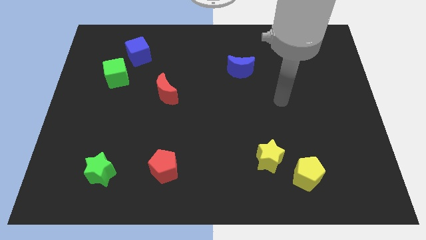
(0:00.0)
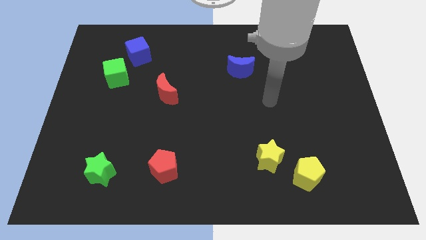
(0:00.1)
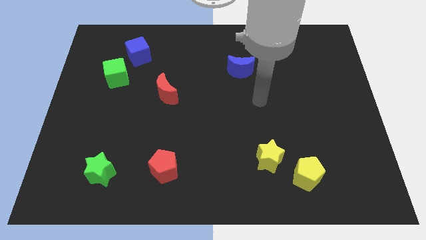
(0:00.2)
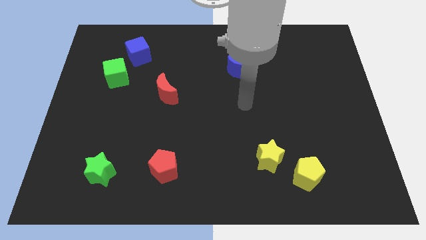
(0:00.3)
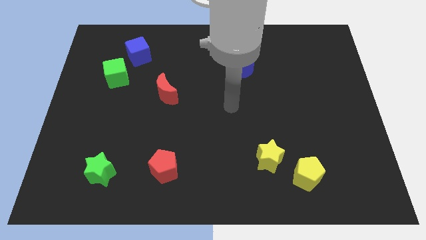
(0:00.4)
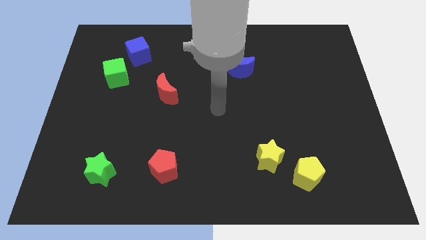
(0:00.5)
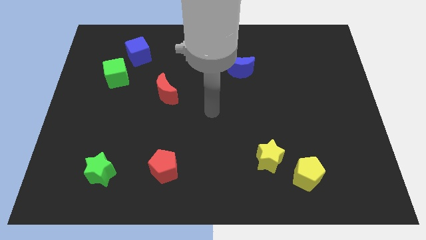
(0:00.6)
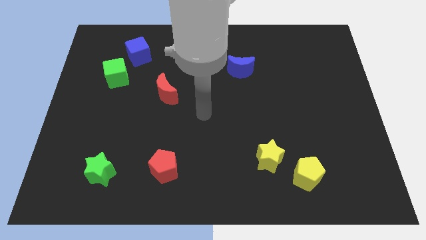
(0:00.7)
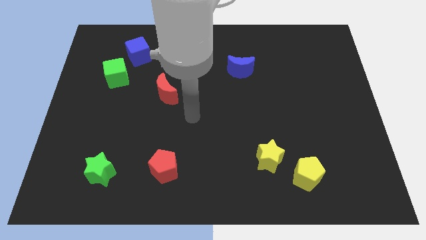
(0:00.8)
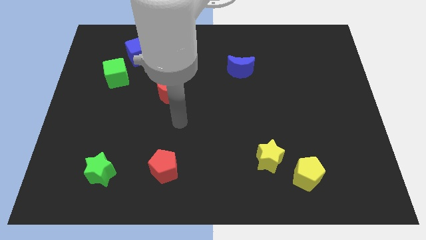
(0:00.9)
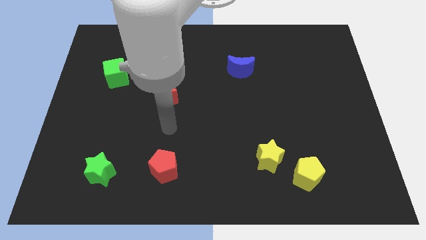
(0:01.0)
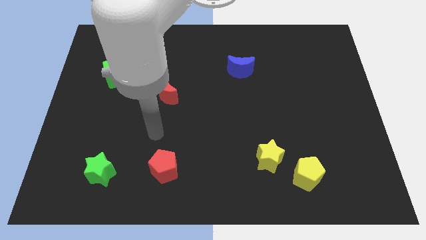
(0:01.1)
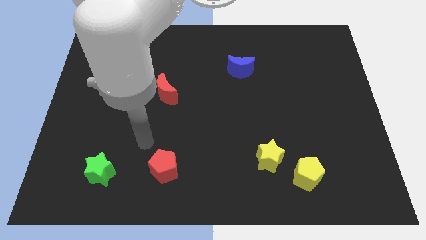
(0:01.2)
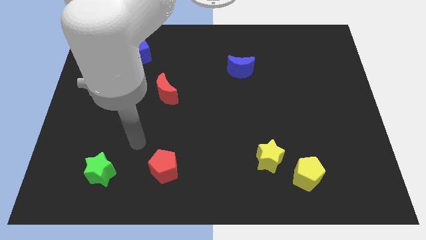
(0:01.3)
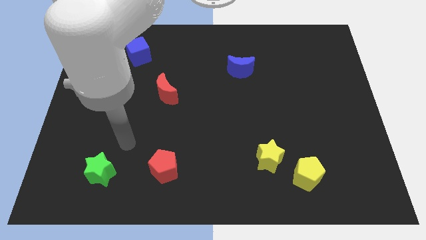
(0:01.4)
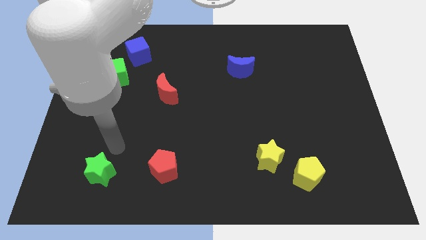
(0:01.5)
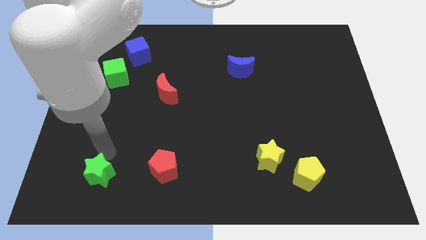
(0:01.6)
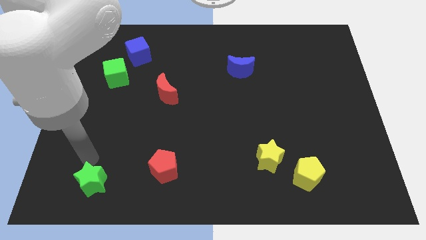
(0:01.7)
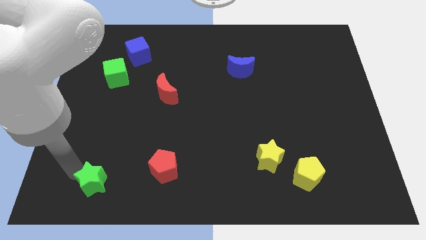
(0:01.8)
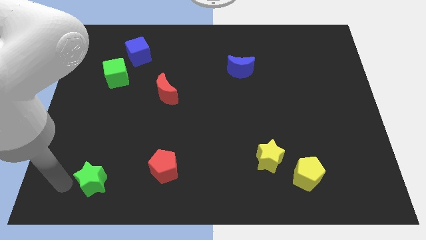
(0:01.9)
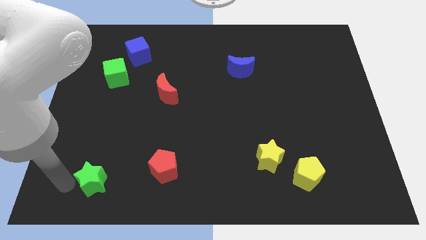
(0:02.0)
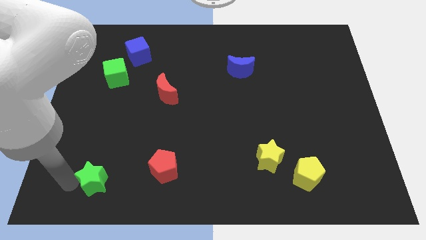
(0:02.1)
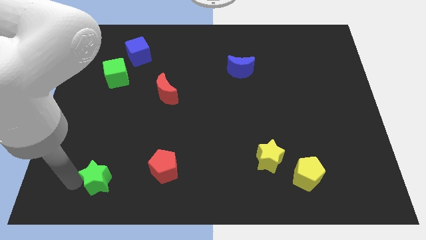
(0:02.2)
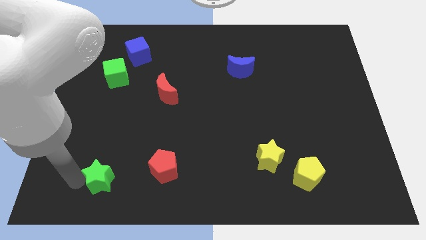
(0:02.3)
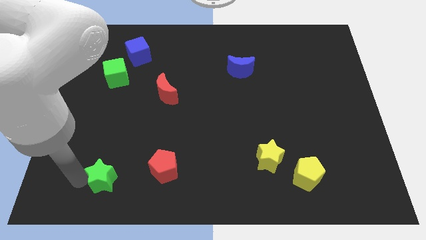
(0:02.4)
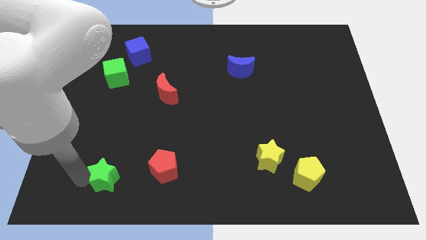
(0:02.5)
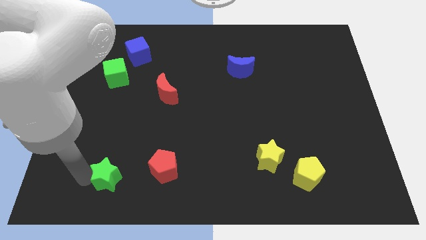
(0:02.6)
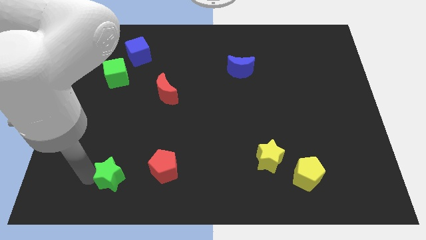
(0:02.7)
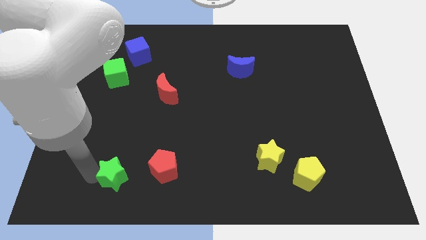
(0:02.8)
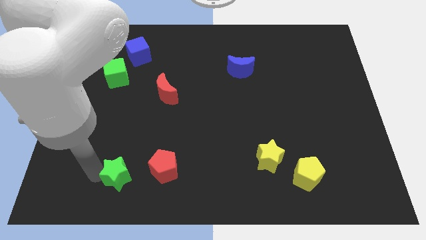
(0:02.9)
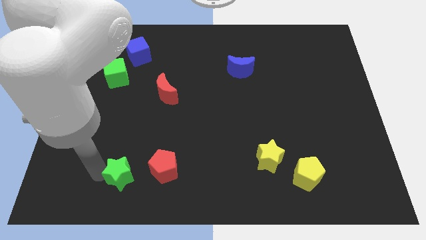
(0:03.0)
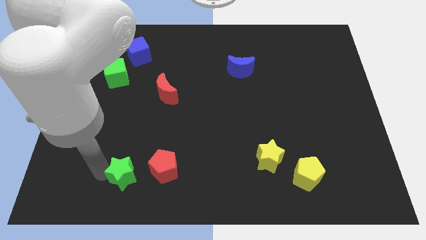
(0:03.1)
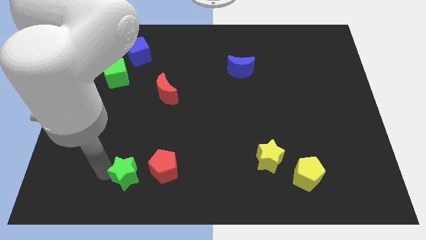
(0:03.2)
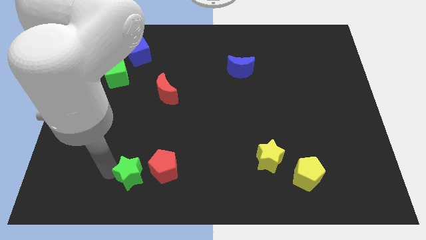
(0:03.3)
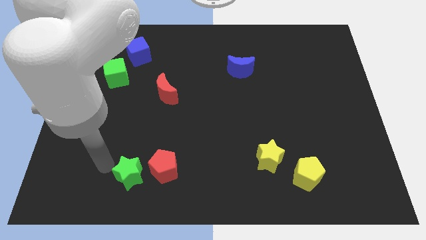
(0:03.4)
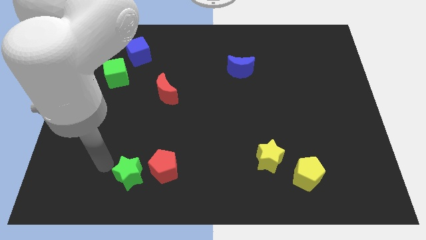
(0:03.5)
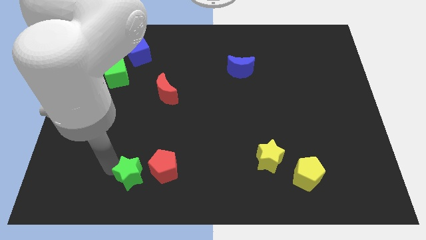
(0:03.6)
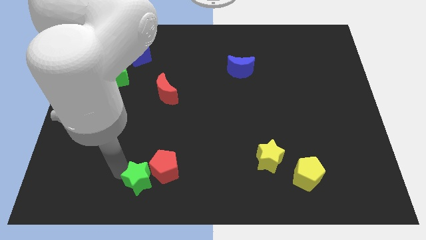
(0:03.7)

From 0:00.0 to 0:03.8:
move the green star to the right slightly

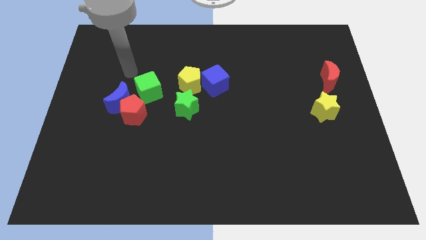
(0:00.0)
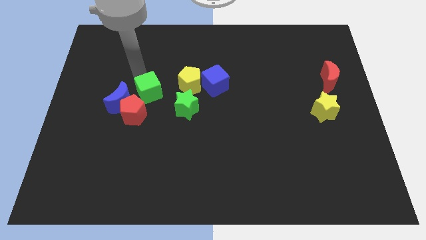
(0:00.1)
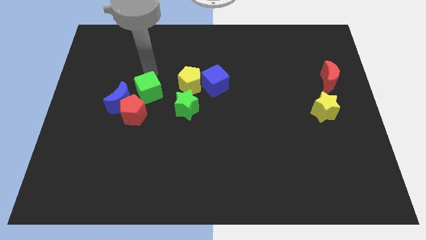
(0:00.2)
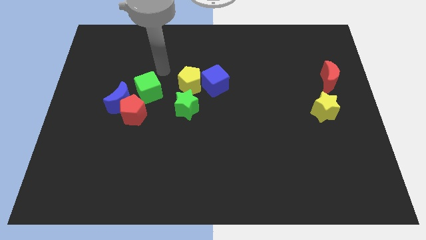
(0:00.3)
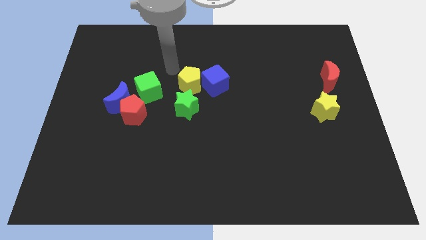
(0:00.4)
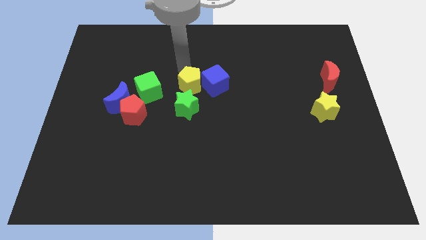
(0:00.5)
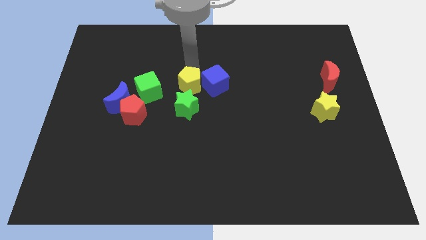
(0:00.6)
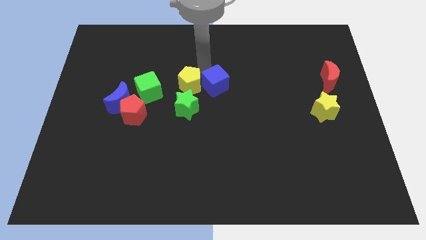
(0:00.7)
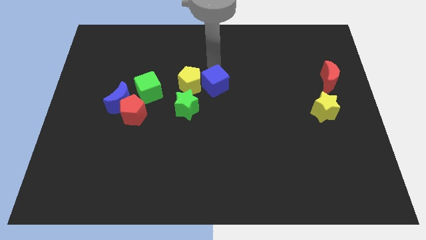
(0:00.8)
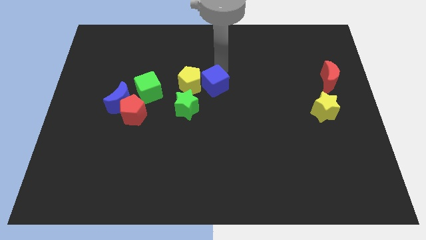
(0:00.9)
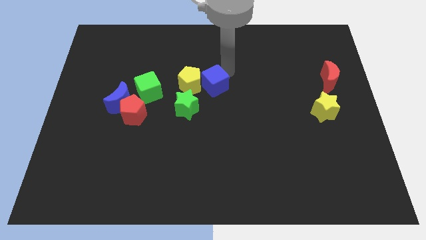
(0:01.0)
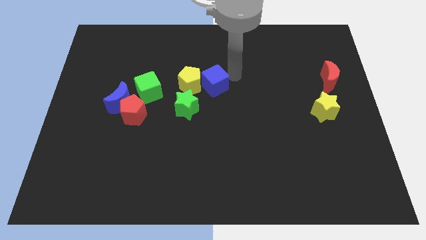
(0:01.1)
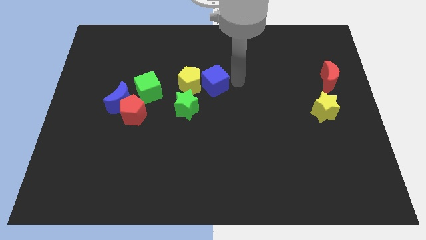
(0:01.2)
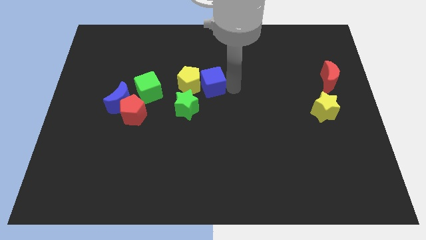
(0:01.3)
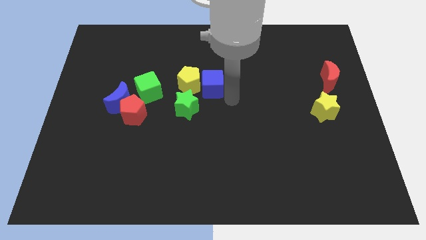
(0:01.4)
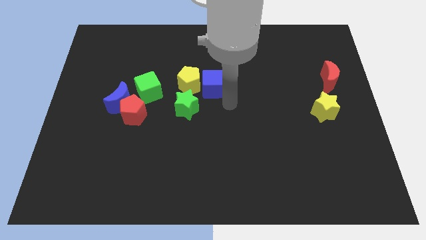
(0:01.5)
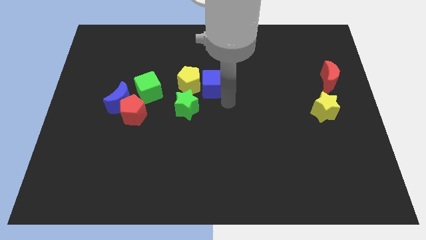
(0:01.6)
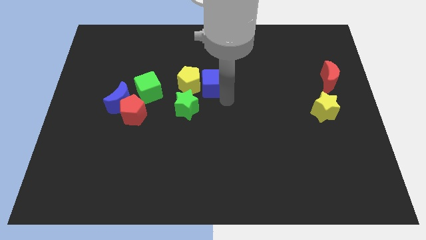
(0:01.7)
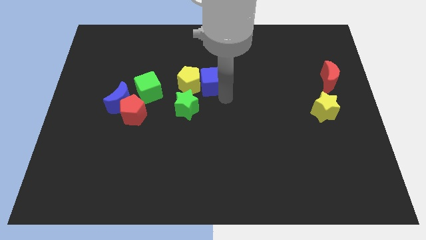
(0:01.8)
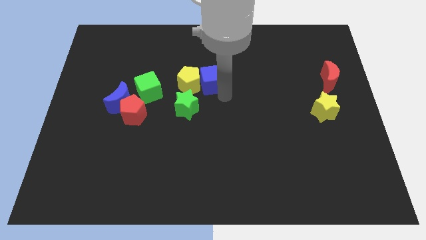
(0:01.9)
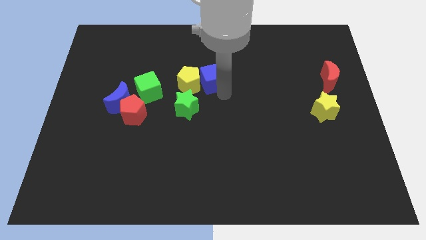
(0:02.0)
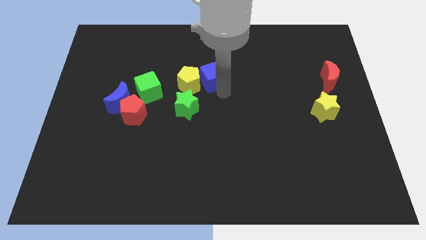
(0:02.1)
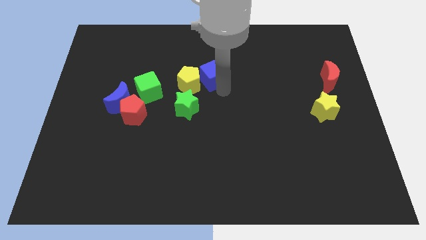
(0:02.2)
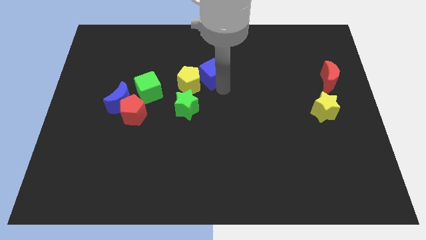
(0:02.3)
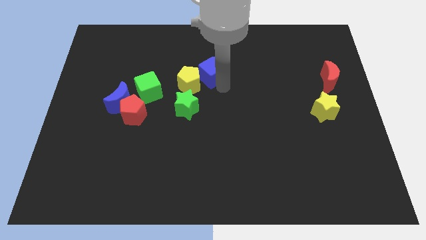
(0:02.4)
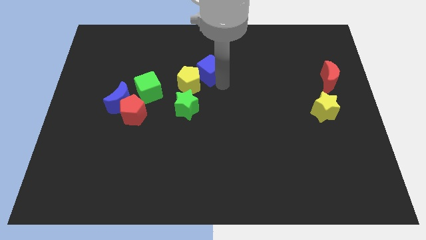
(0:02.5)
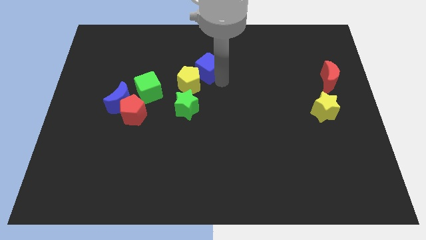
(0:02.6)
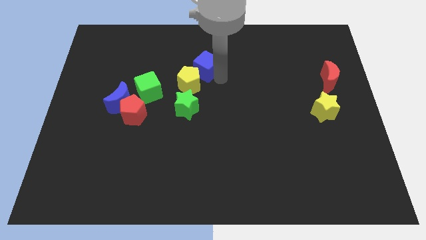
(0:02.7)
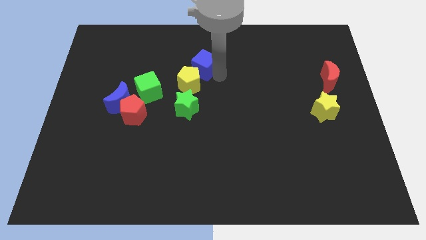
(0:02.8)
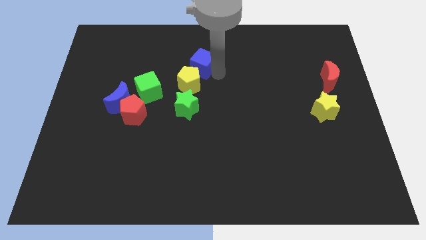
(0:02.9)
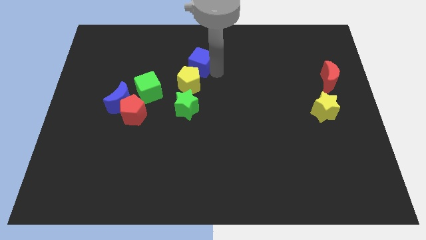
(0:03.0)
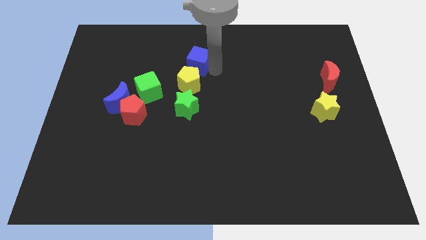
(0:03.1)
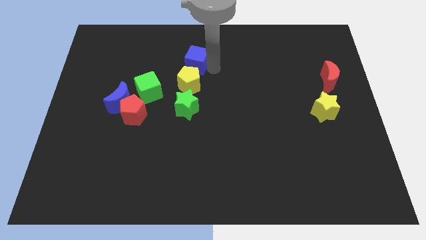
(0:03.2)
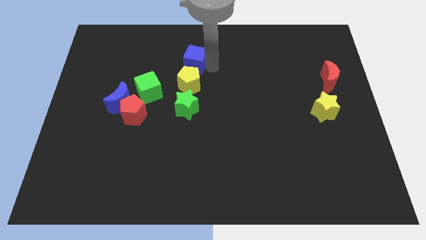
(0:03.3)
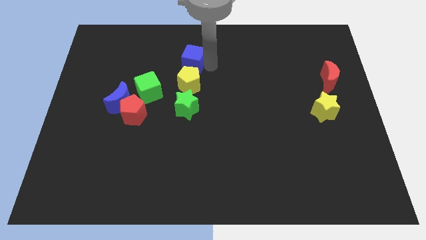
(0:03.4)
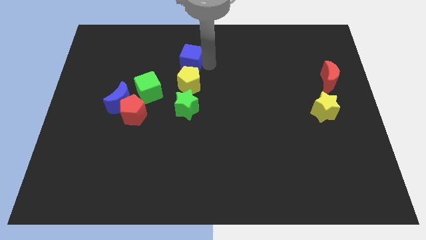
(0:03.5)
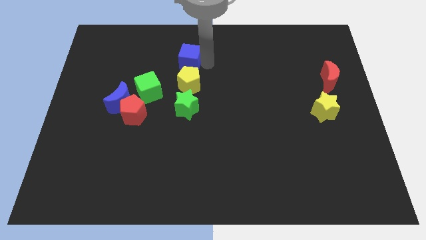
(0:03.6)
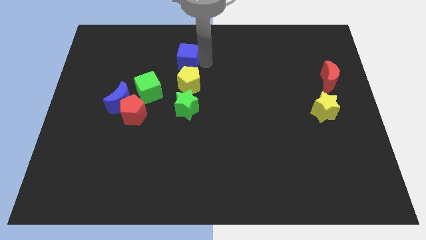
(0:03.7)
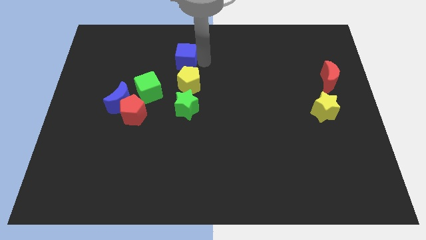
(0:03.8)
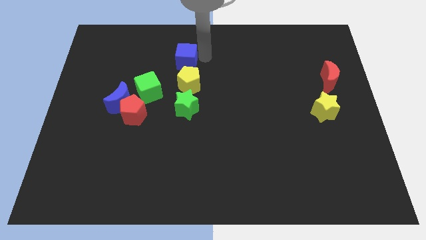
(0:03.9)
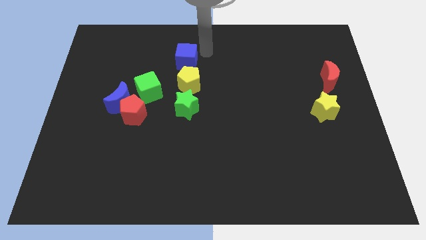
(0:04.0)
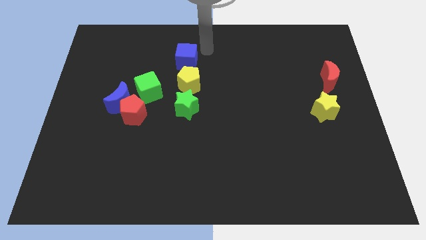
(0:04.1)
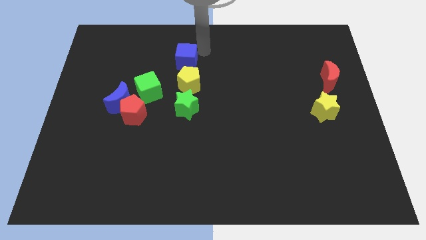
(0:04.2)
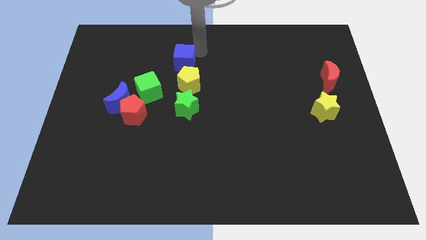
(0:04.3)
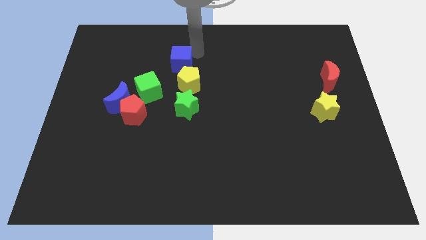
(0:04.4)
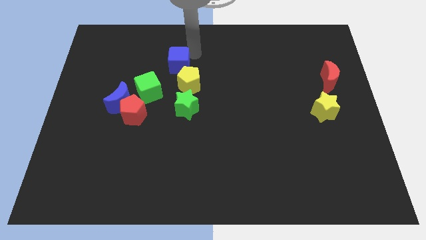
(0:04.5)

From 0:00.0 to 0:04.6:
slide the blue cube left somewhat
